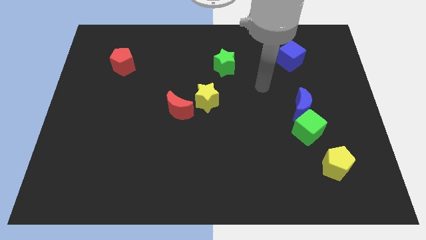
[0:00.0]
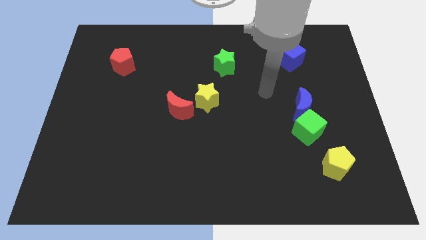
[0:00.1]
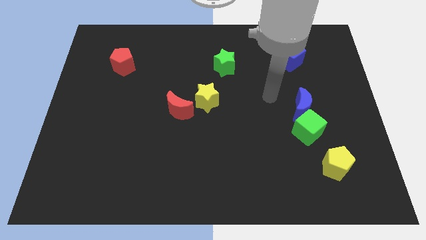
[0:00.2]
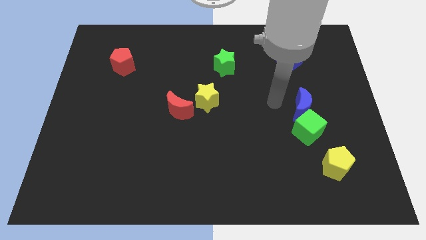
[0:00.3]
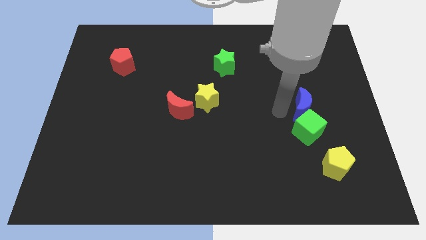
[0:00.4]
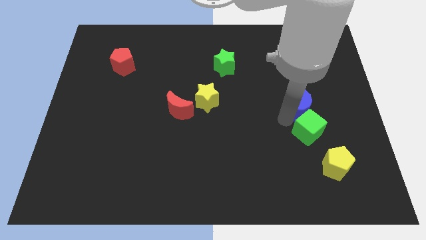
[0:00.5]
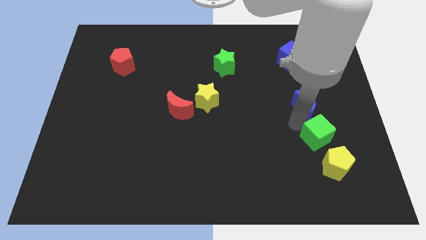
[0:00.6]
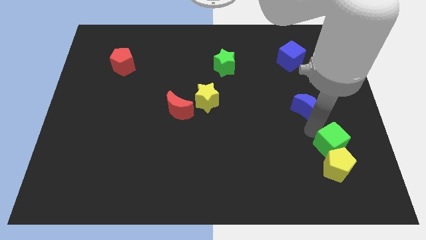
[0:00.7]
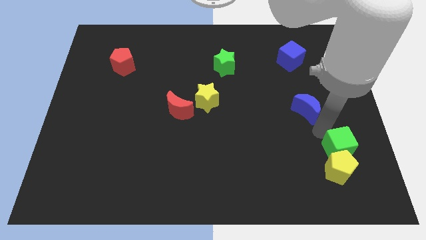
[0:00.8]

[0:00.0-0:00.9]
pull the blue moon apart from the green cube

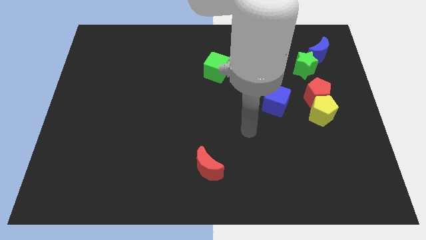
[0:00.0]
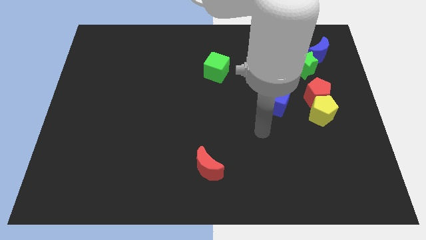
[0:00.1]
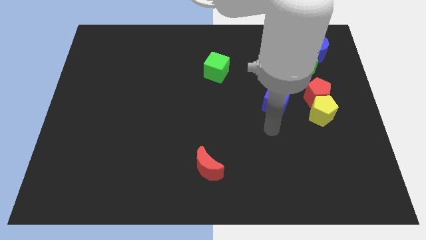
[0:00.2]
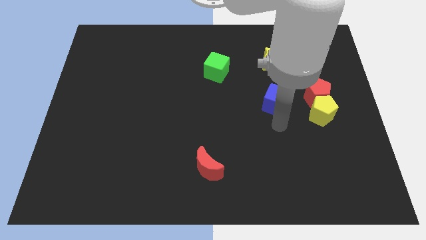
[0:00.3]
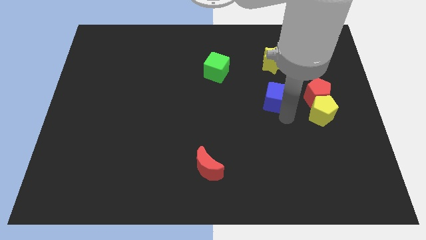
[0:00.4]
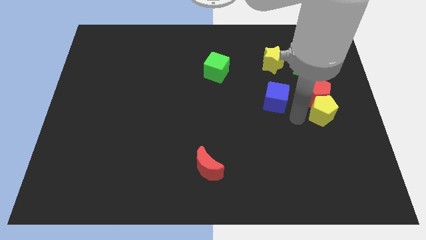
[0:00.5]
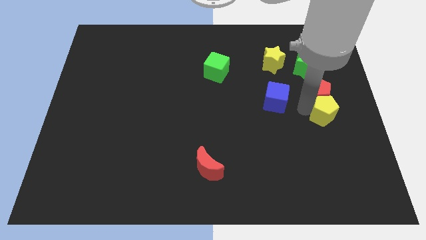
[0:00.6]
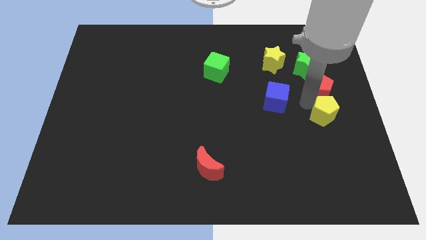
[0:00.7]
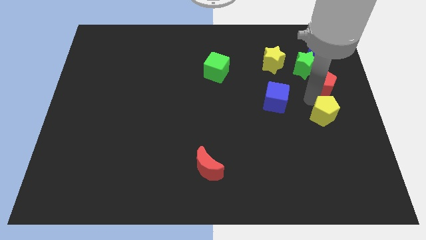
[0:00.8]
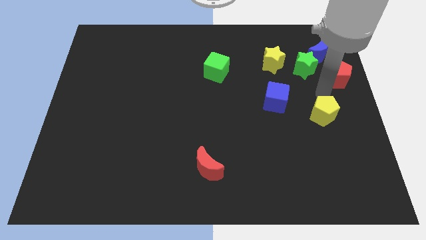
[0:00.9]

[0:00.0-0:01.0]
pull the yellow pentagon apart from the red pentagon

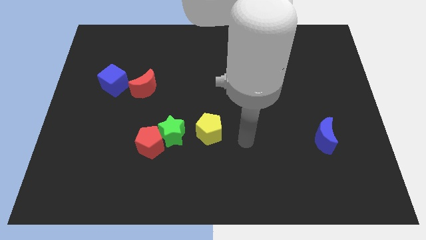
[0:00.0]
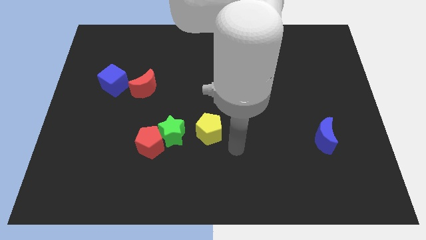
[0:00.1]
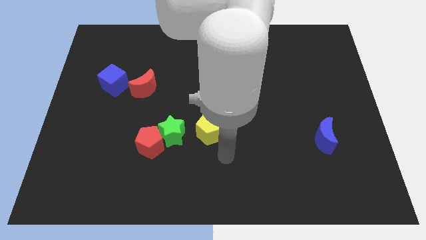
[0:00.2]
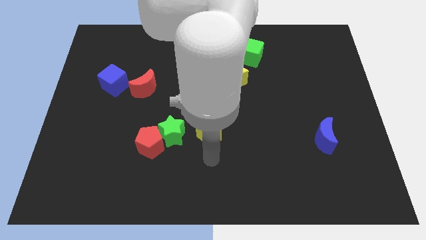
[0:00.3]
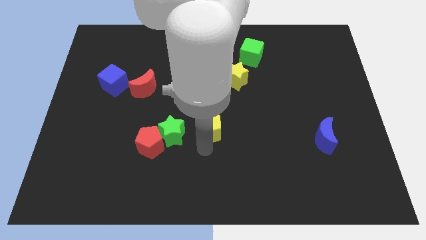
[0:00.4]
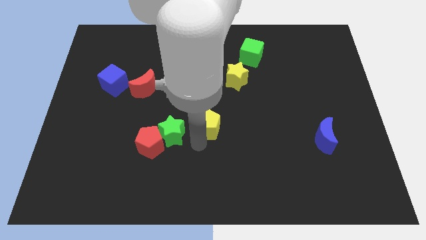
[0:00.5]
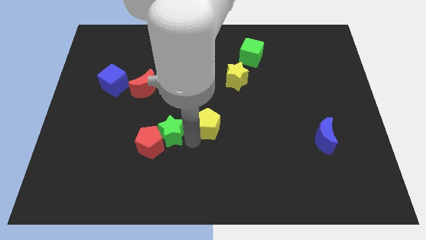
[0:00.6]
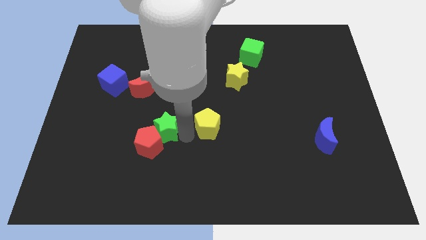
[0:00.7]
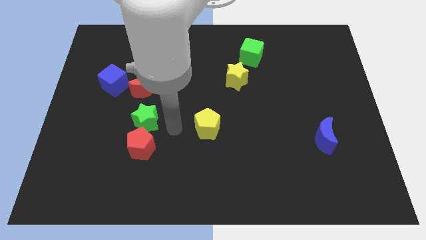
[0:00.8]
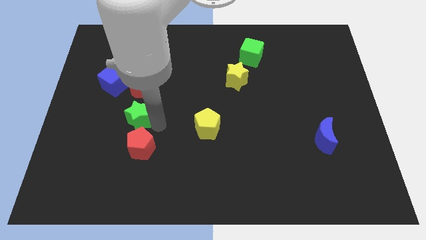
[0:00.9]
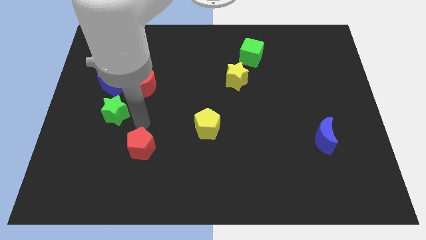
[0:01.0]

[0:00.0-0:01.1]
move the red pentagon away from the green star

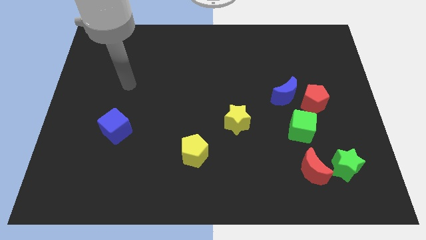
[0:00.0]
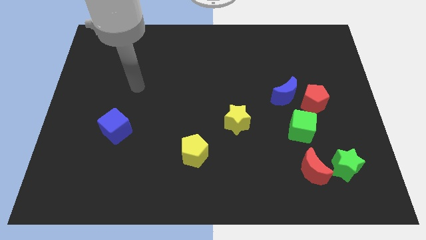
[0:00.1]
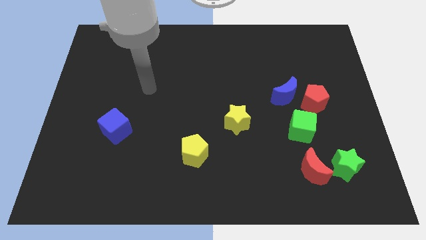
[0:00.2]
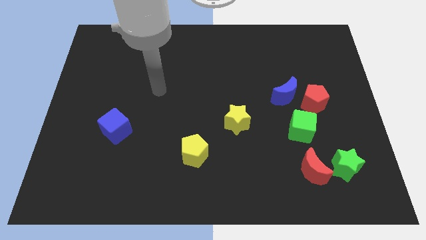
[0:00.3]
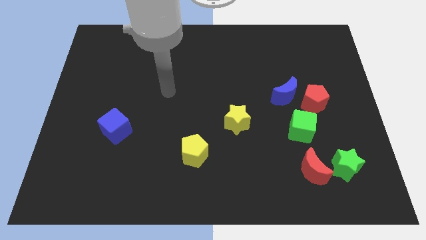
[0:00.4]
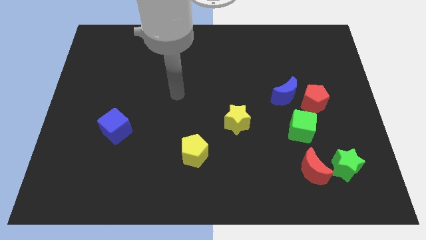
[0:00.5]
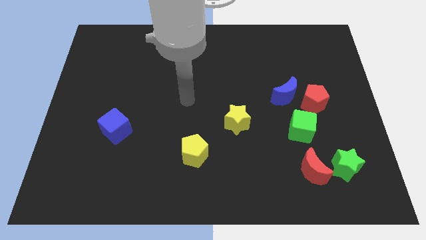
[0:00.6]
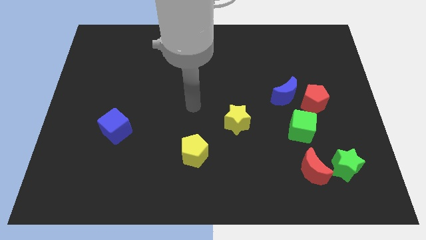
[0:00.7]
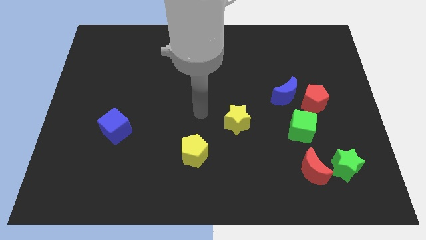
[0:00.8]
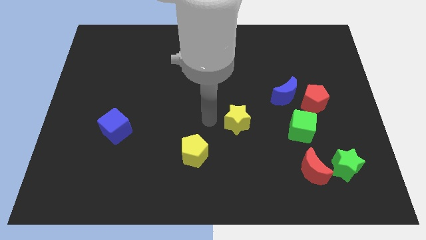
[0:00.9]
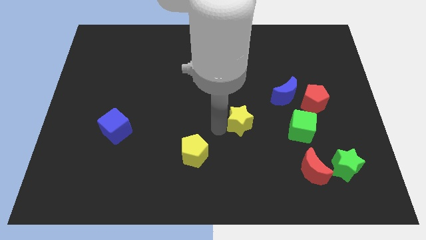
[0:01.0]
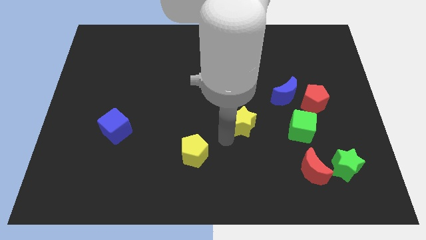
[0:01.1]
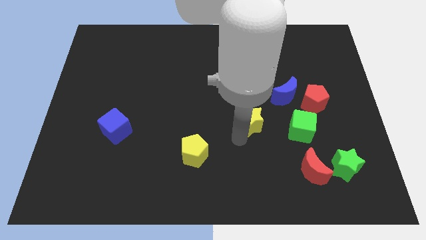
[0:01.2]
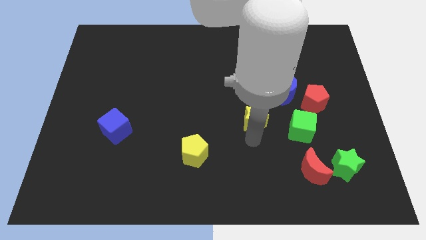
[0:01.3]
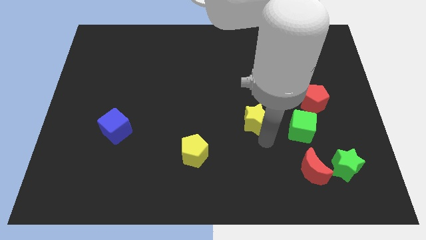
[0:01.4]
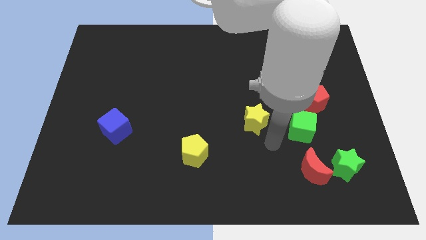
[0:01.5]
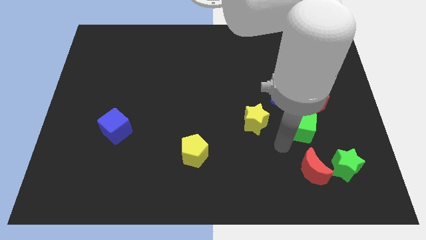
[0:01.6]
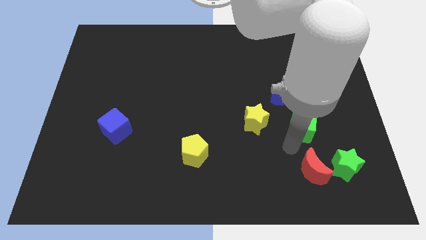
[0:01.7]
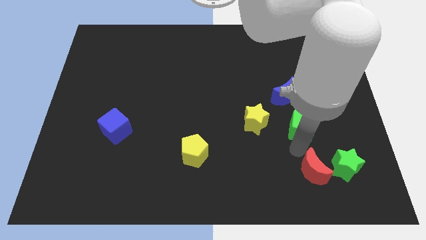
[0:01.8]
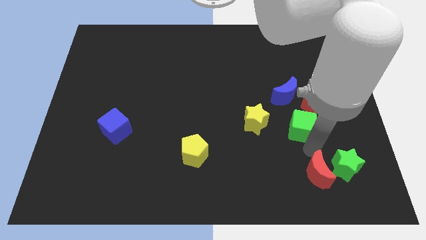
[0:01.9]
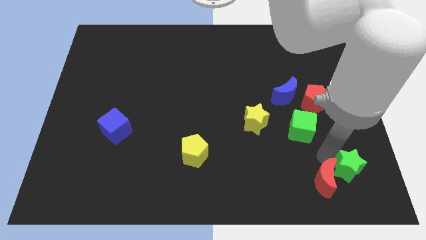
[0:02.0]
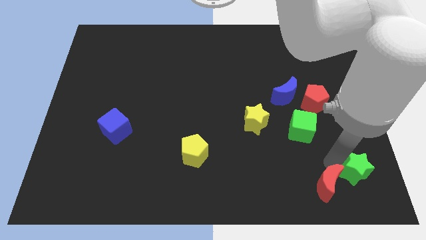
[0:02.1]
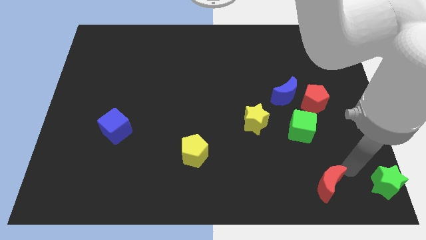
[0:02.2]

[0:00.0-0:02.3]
move the red moon away from the green star

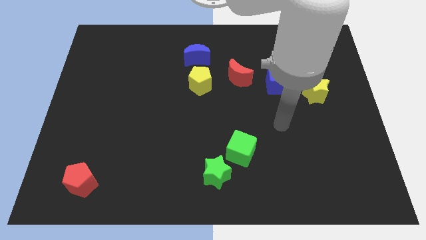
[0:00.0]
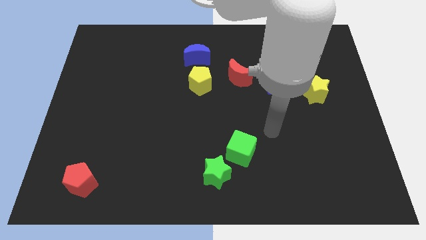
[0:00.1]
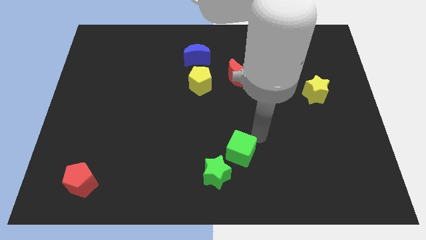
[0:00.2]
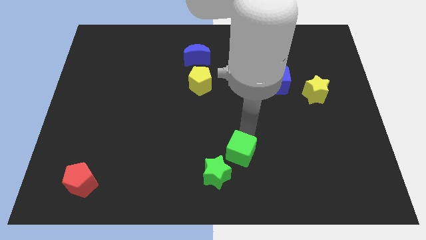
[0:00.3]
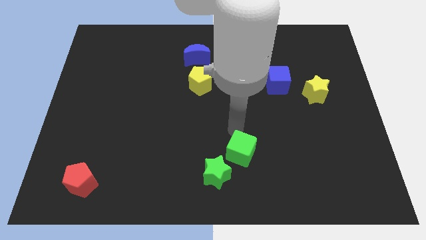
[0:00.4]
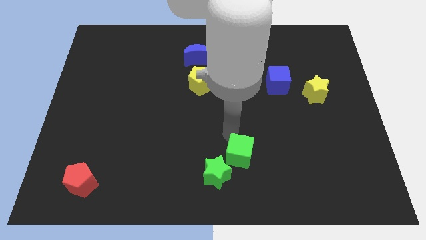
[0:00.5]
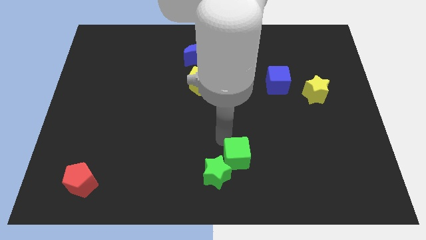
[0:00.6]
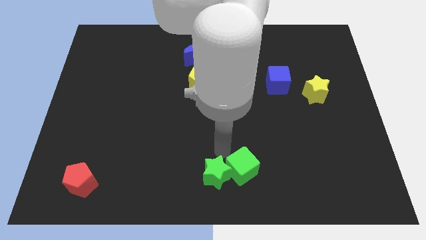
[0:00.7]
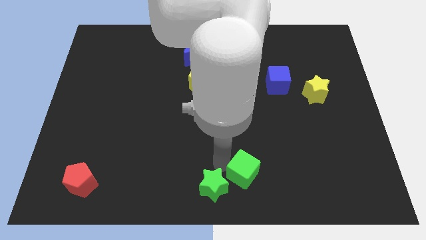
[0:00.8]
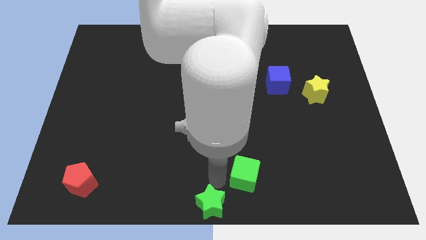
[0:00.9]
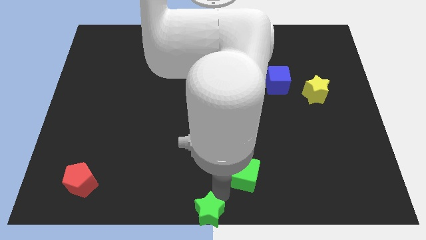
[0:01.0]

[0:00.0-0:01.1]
separate the green cube from the green star

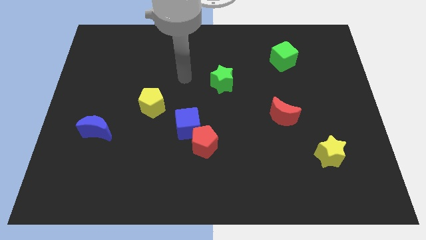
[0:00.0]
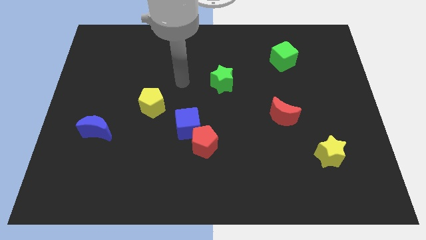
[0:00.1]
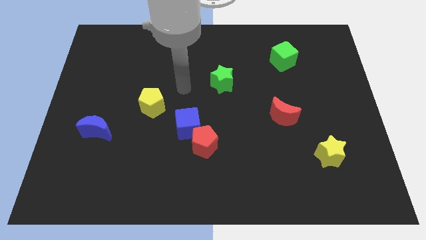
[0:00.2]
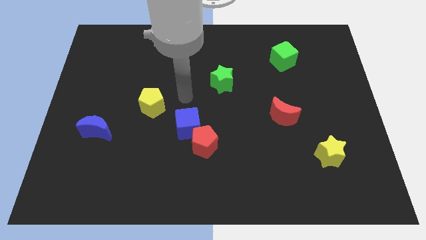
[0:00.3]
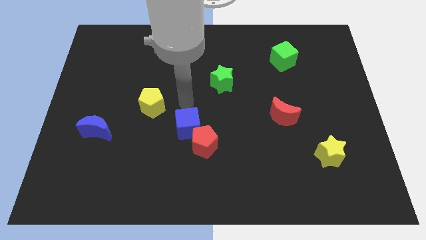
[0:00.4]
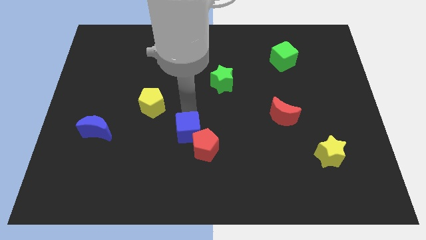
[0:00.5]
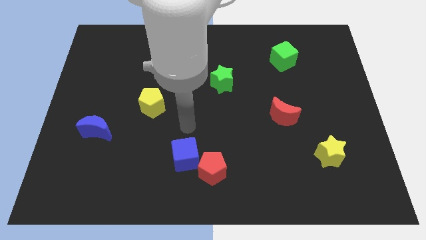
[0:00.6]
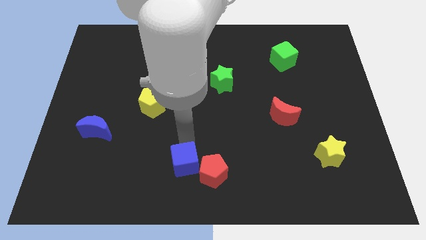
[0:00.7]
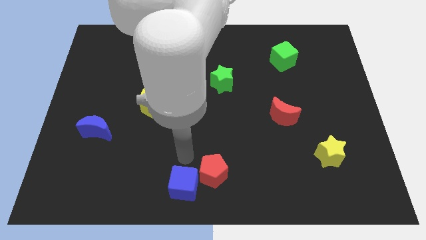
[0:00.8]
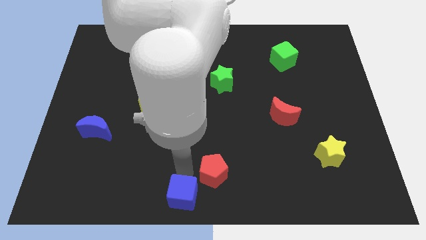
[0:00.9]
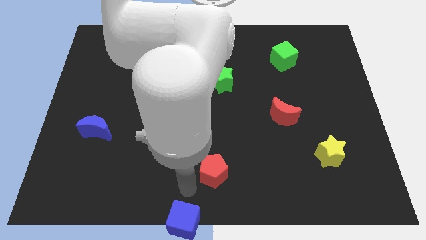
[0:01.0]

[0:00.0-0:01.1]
separate the red pentagon from the blue cube

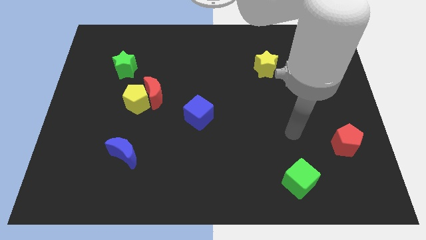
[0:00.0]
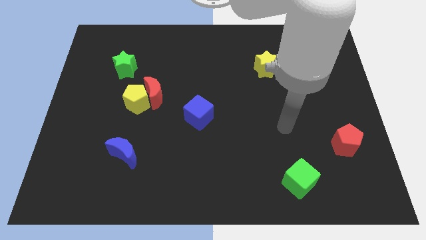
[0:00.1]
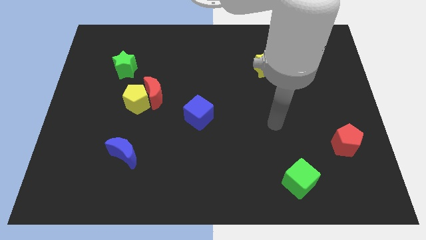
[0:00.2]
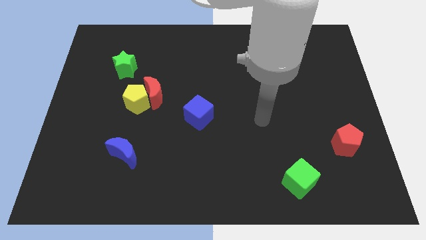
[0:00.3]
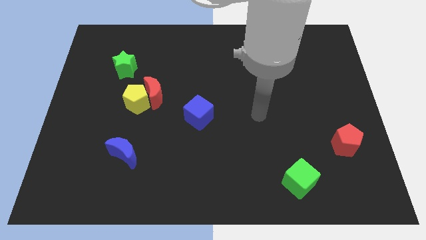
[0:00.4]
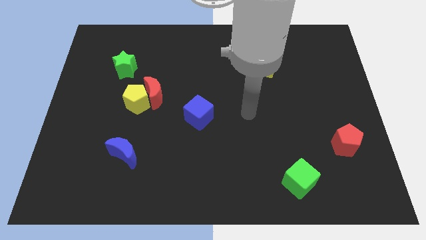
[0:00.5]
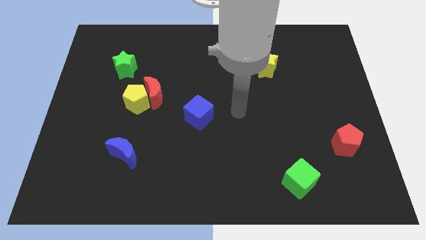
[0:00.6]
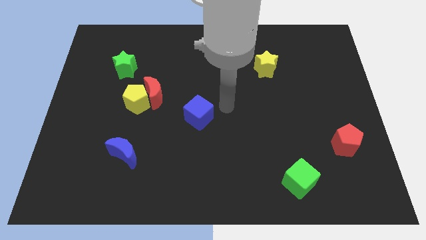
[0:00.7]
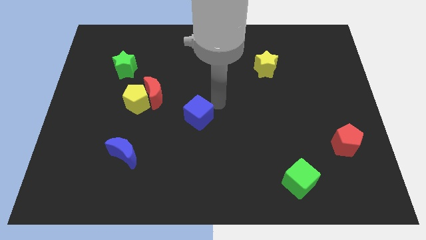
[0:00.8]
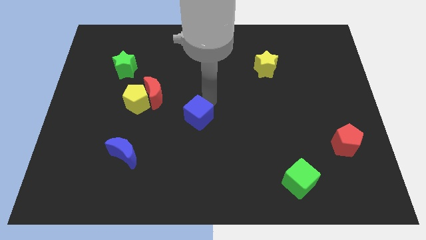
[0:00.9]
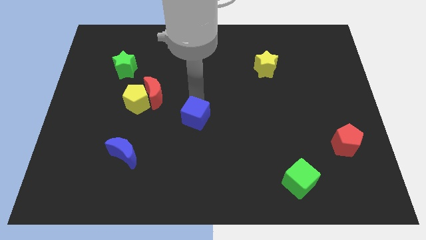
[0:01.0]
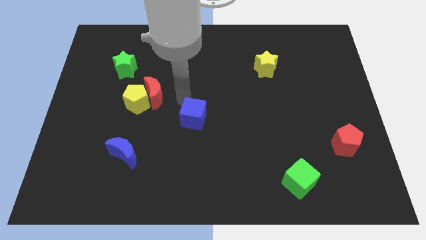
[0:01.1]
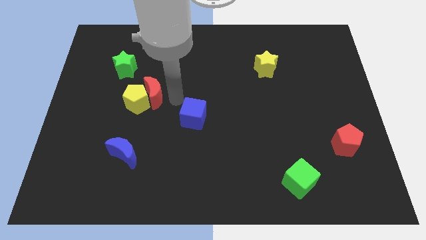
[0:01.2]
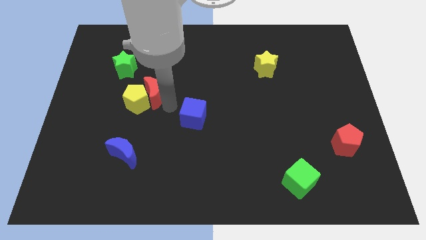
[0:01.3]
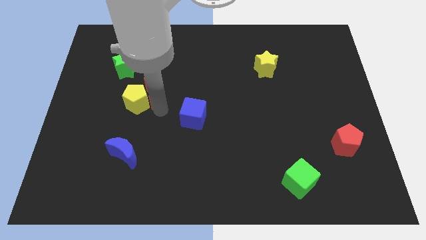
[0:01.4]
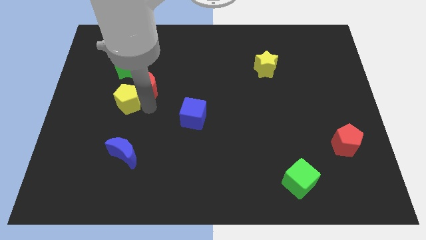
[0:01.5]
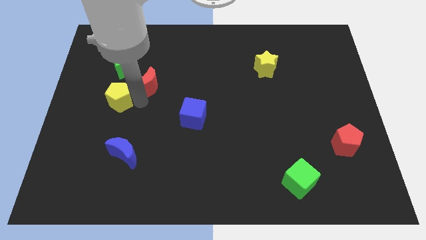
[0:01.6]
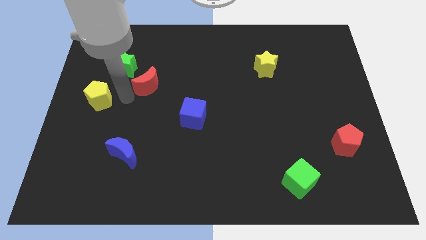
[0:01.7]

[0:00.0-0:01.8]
pull the red moon apart from the yellow pentagon
